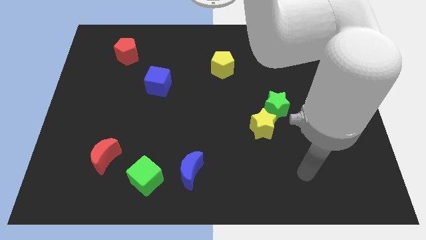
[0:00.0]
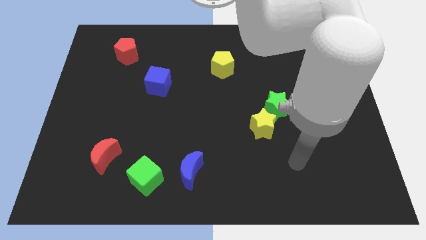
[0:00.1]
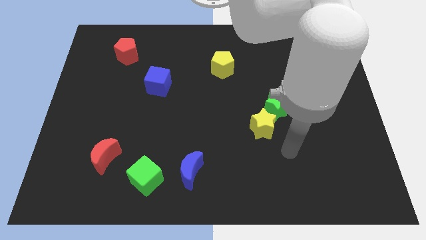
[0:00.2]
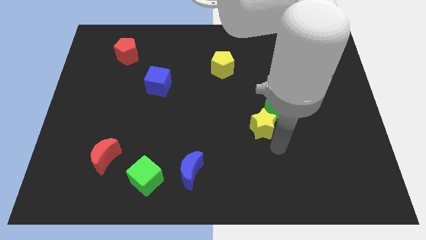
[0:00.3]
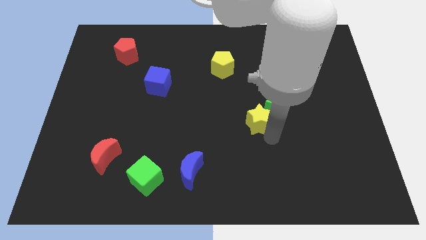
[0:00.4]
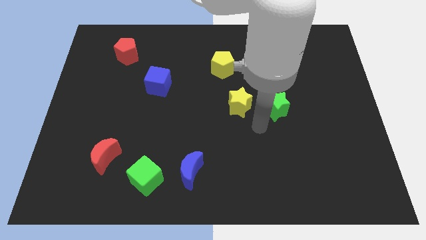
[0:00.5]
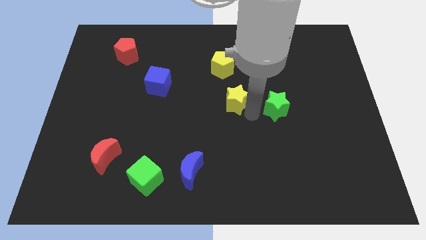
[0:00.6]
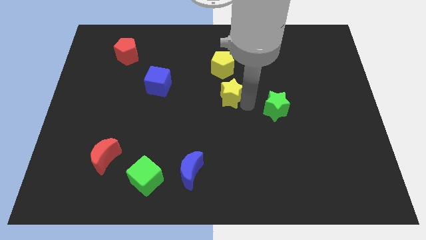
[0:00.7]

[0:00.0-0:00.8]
separate the green star from the yellow star

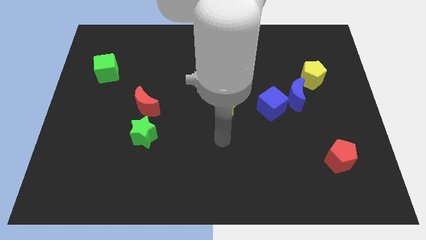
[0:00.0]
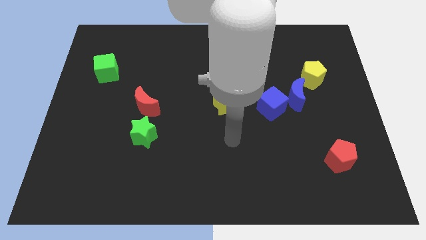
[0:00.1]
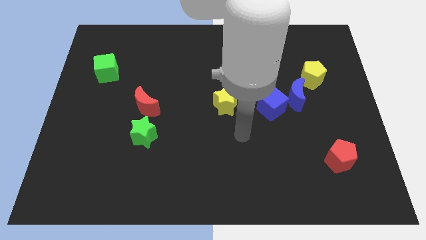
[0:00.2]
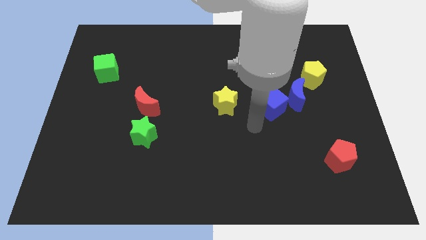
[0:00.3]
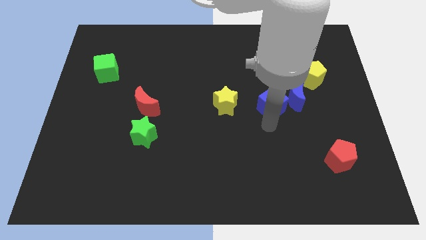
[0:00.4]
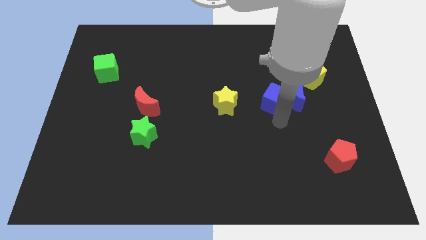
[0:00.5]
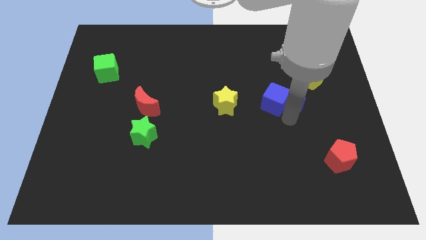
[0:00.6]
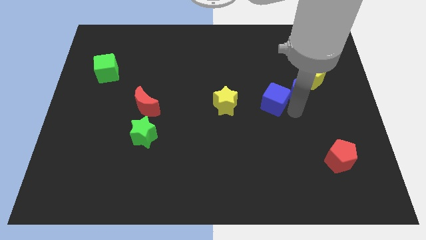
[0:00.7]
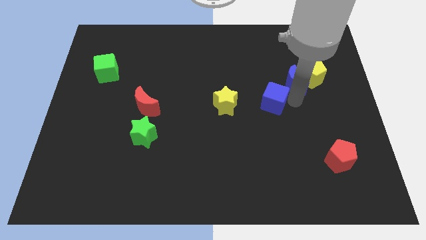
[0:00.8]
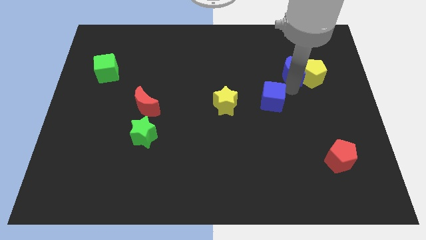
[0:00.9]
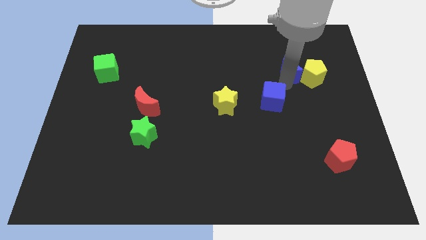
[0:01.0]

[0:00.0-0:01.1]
separate the blue cube from the blue moon

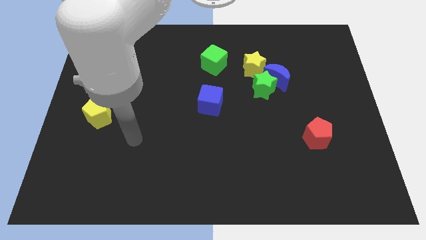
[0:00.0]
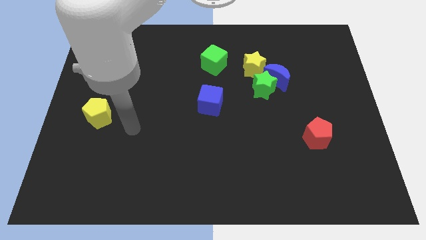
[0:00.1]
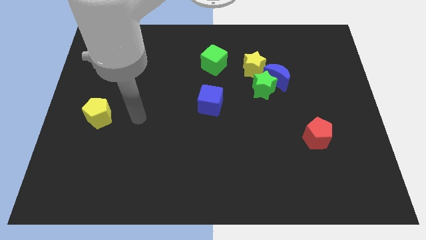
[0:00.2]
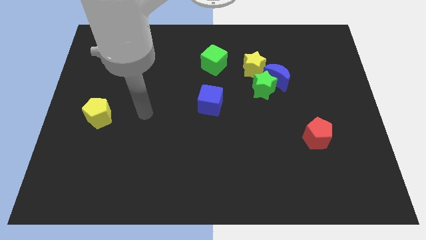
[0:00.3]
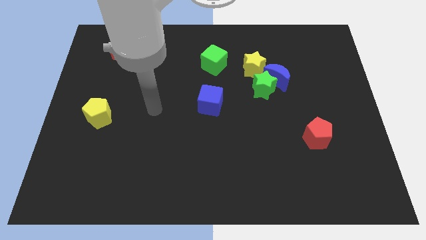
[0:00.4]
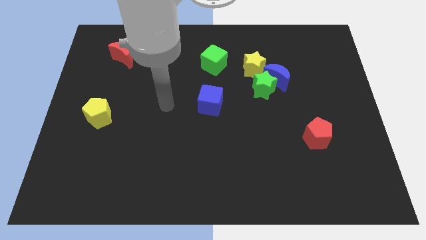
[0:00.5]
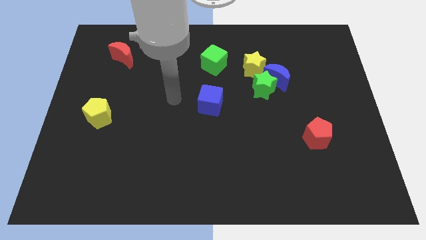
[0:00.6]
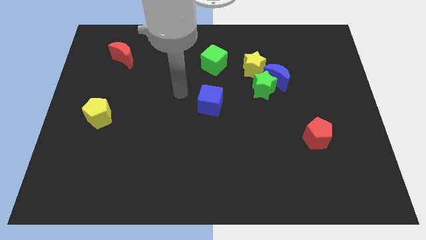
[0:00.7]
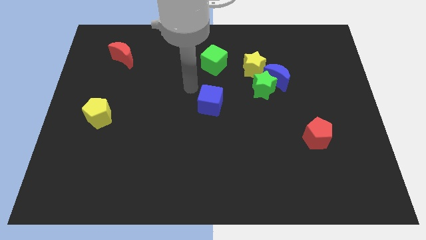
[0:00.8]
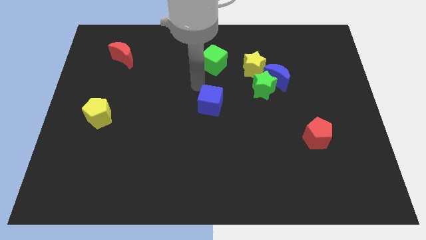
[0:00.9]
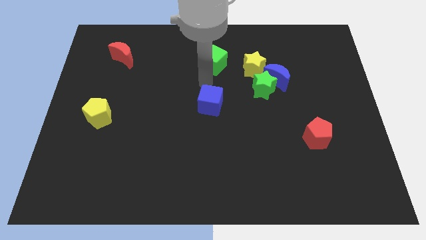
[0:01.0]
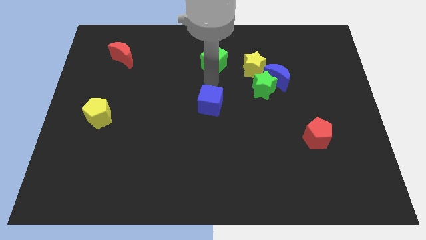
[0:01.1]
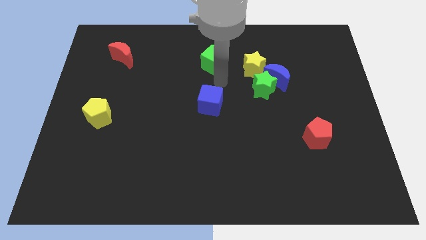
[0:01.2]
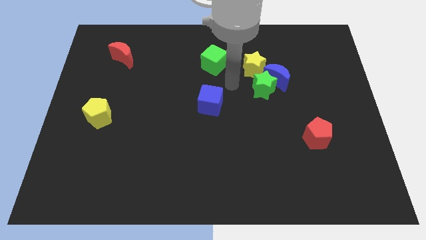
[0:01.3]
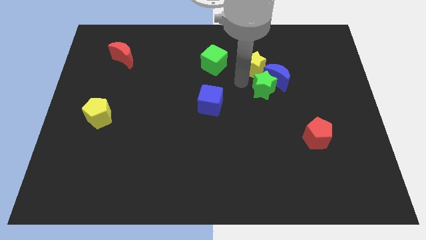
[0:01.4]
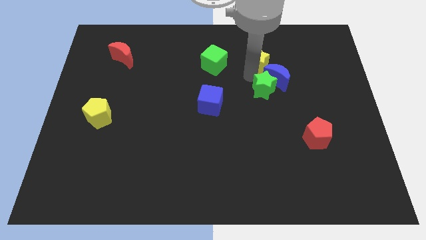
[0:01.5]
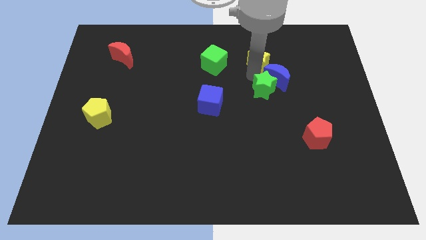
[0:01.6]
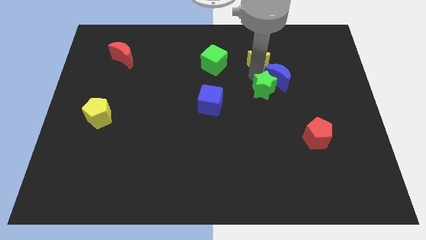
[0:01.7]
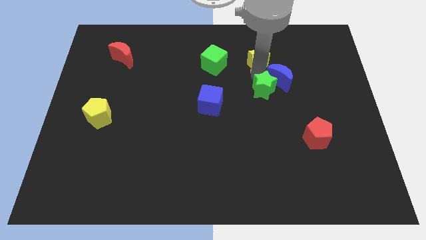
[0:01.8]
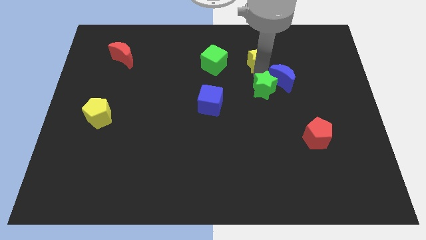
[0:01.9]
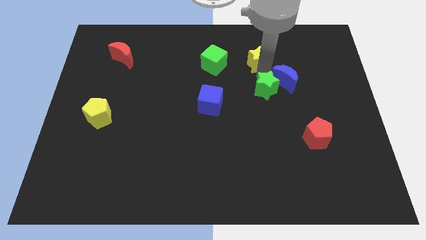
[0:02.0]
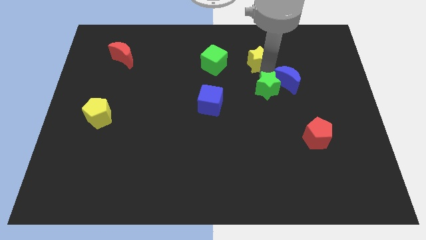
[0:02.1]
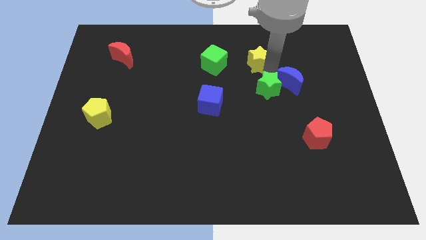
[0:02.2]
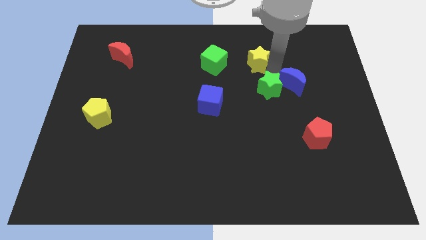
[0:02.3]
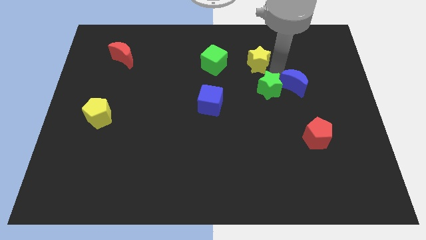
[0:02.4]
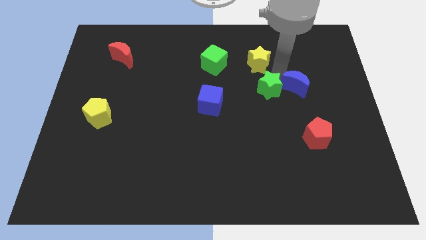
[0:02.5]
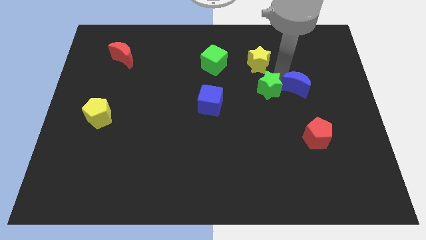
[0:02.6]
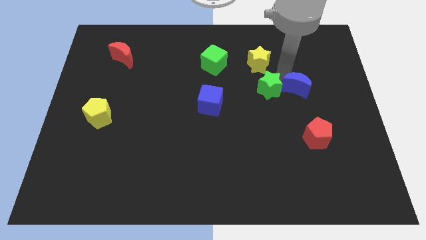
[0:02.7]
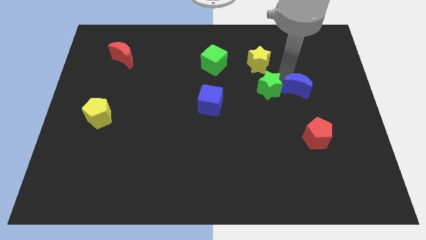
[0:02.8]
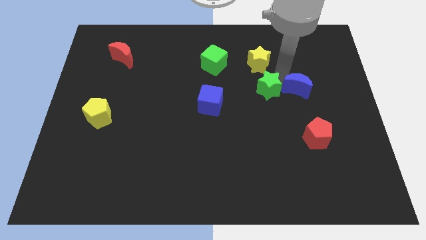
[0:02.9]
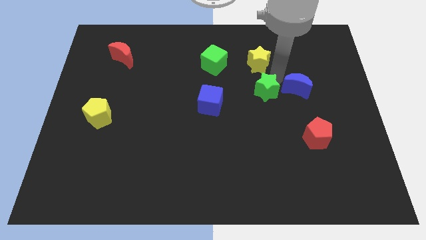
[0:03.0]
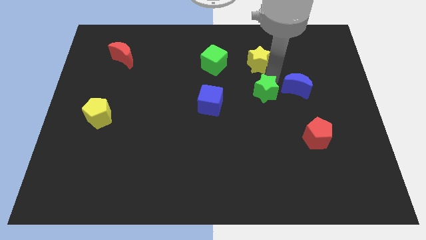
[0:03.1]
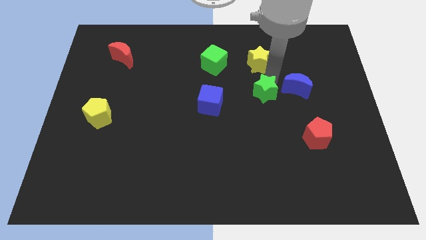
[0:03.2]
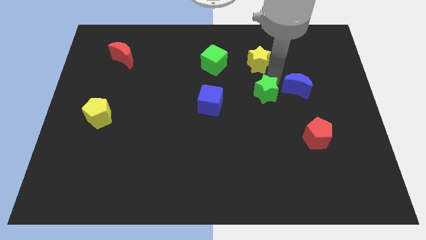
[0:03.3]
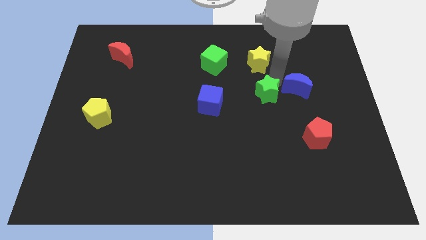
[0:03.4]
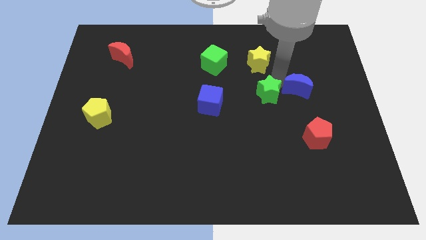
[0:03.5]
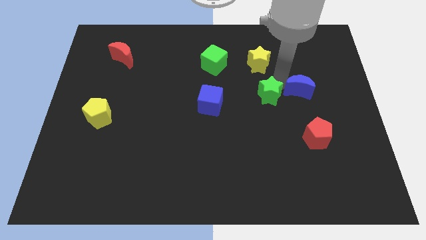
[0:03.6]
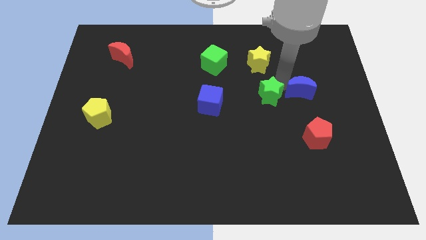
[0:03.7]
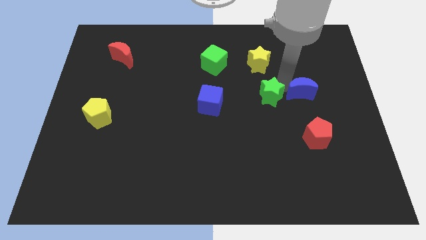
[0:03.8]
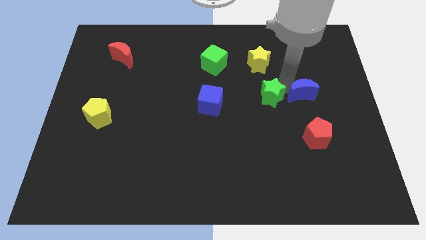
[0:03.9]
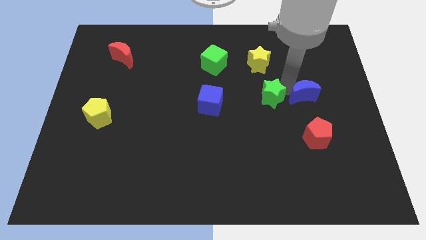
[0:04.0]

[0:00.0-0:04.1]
move the blue moon away from the green star and yellow star

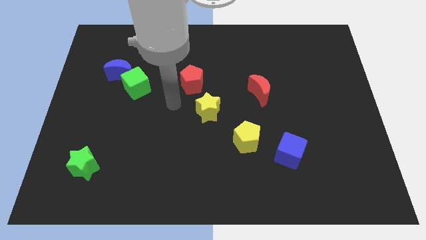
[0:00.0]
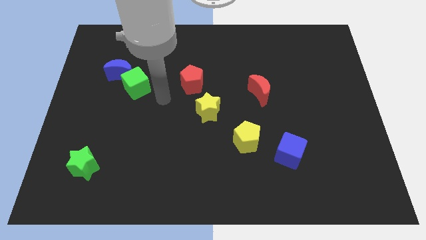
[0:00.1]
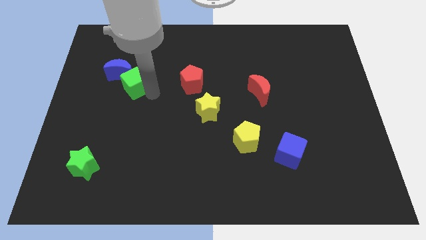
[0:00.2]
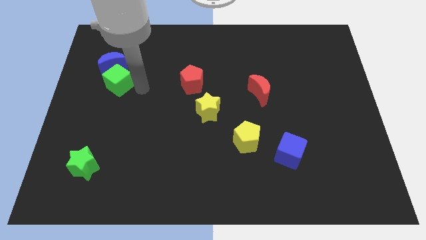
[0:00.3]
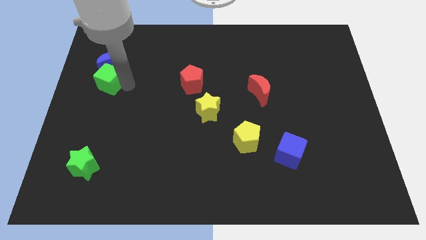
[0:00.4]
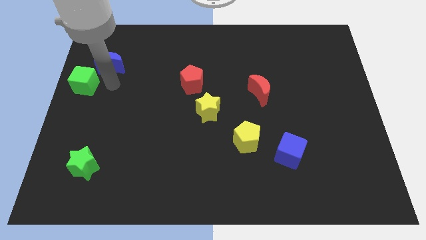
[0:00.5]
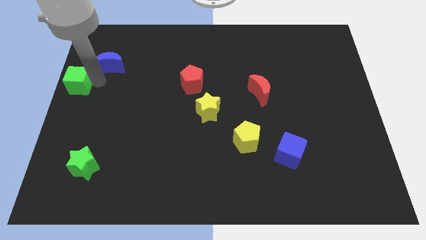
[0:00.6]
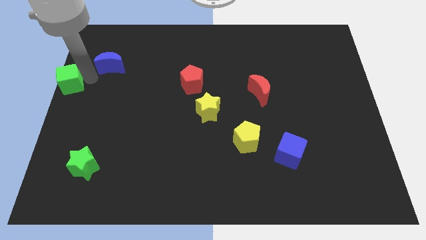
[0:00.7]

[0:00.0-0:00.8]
move the blue moon away from the green cube

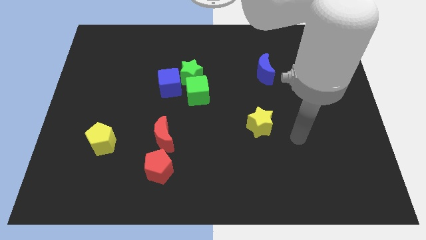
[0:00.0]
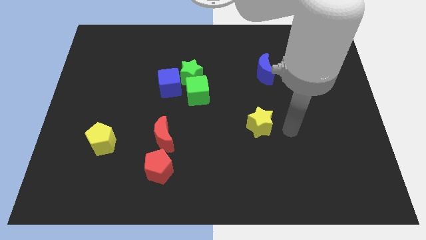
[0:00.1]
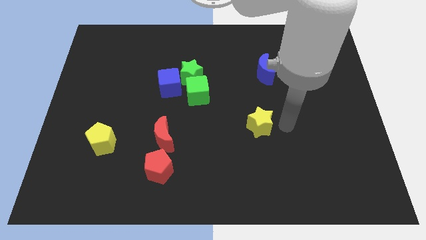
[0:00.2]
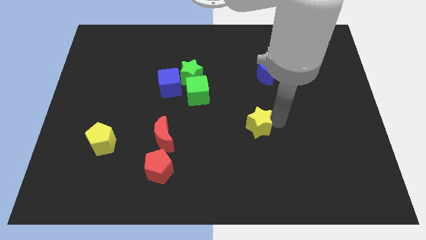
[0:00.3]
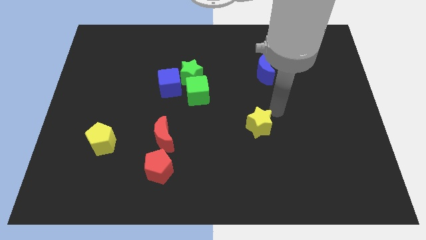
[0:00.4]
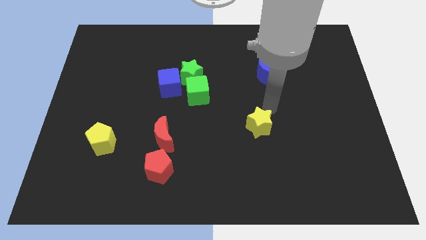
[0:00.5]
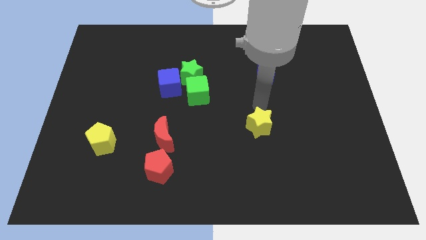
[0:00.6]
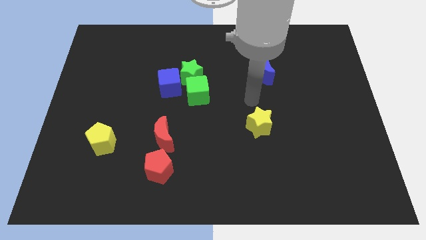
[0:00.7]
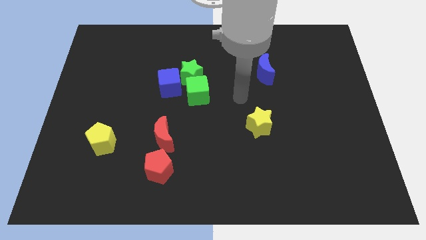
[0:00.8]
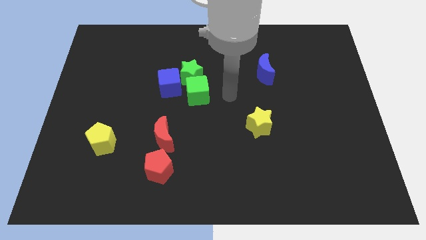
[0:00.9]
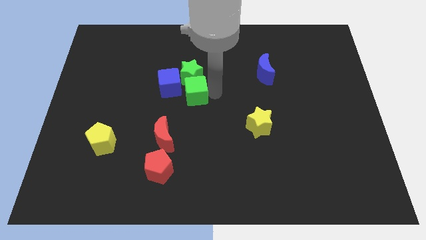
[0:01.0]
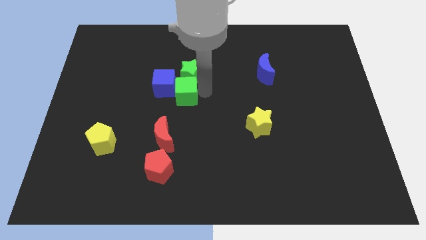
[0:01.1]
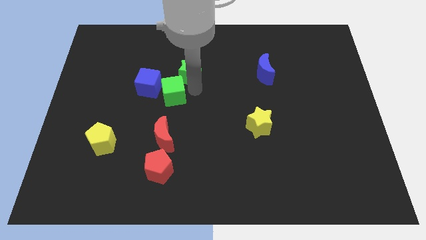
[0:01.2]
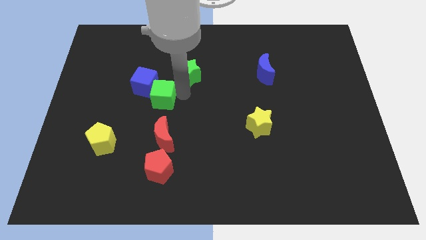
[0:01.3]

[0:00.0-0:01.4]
separate the green star from the green cube and blue cube

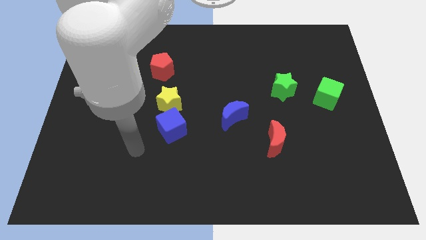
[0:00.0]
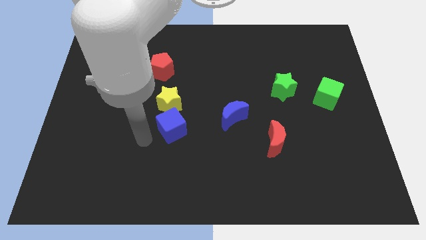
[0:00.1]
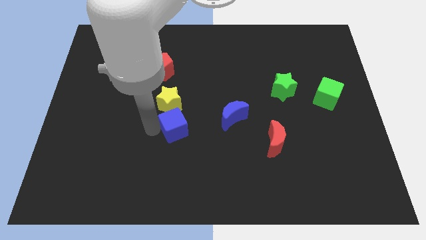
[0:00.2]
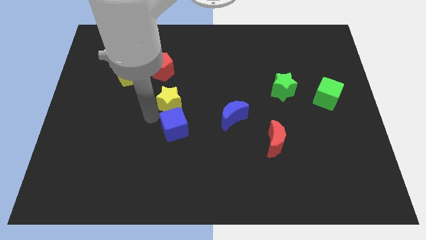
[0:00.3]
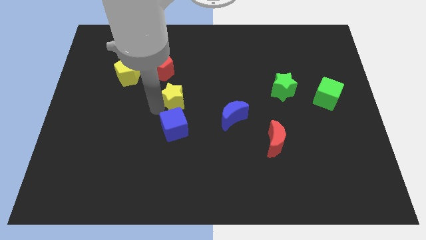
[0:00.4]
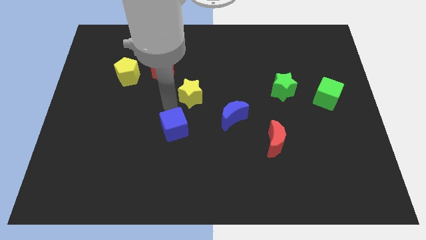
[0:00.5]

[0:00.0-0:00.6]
pull the blue cube apart from the yellow star

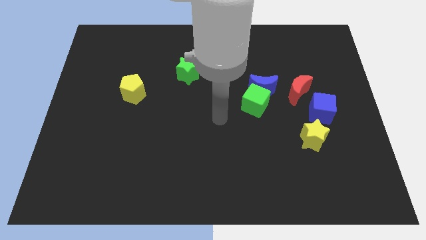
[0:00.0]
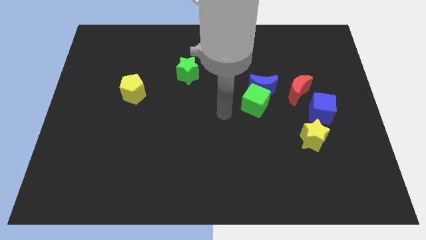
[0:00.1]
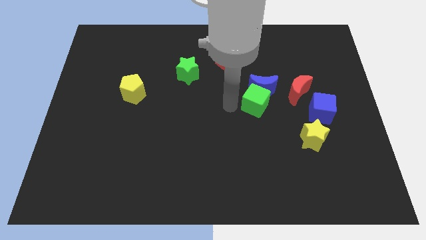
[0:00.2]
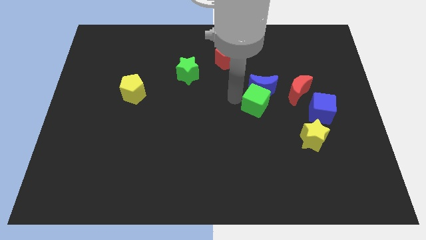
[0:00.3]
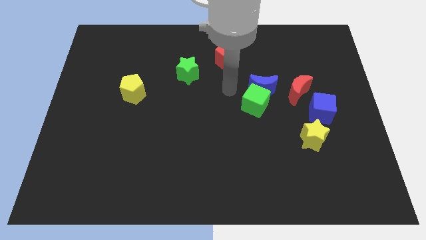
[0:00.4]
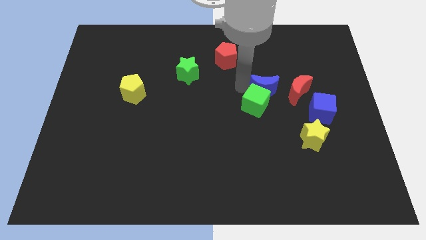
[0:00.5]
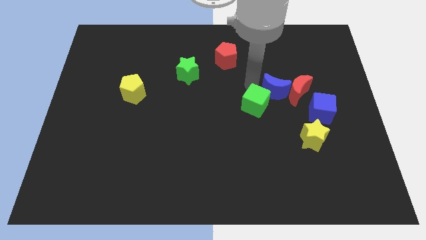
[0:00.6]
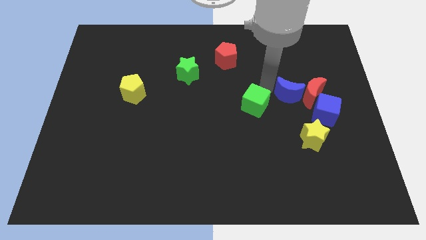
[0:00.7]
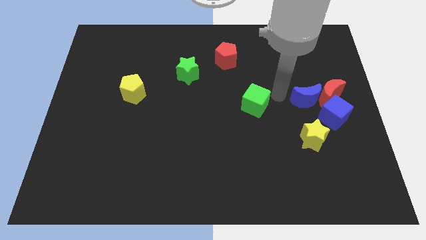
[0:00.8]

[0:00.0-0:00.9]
pull the green cube apart from the blue moon
